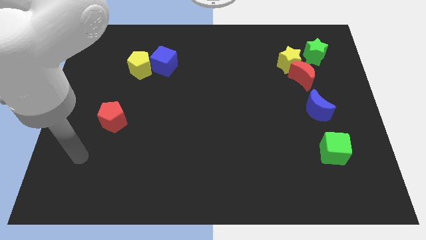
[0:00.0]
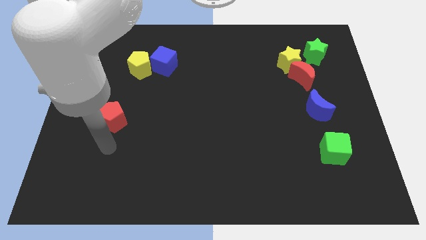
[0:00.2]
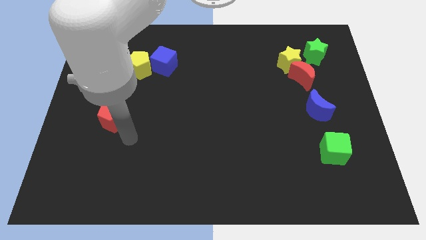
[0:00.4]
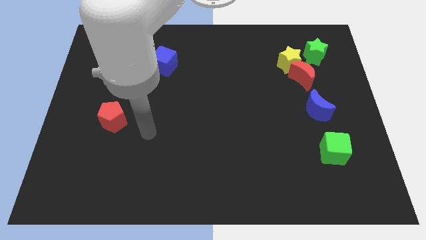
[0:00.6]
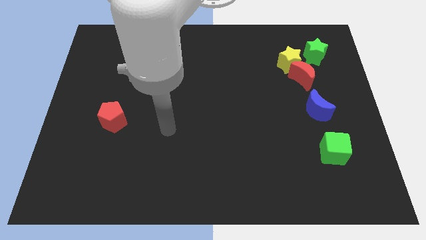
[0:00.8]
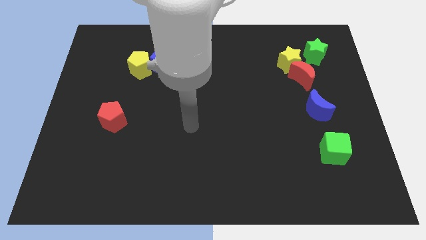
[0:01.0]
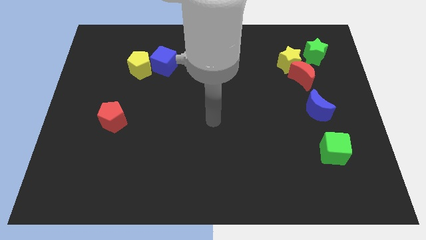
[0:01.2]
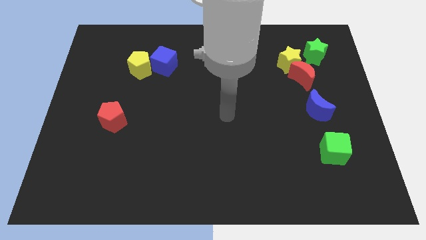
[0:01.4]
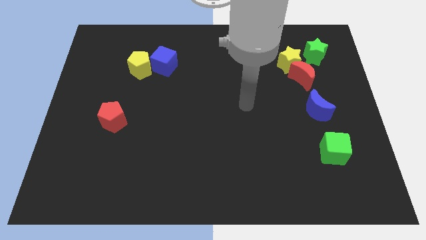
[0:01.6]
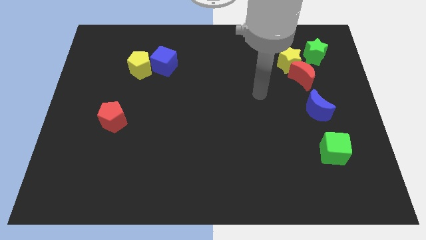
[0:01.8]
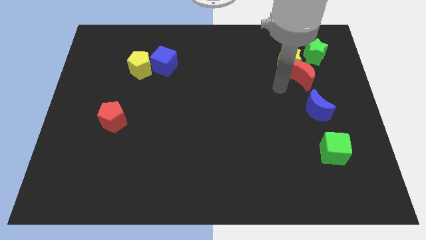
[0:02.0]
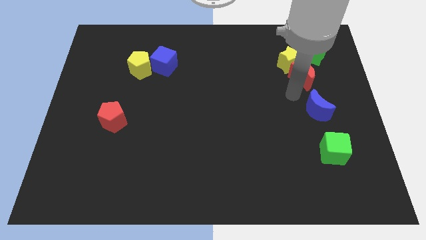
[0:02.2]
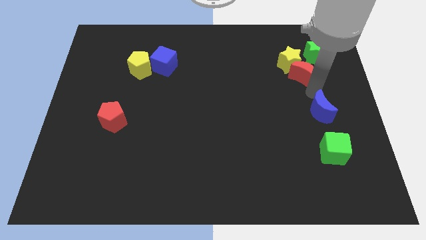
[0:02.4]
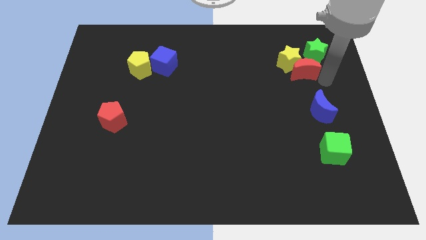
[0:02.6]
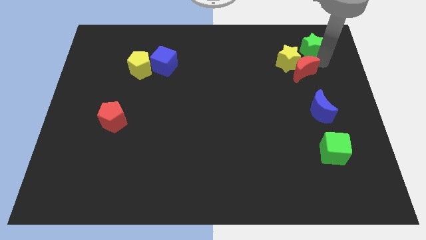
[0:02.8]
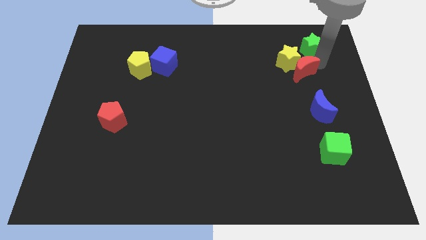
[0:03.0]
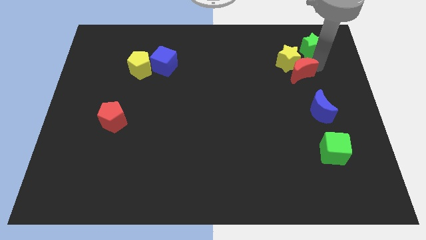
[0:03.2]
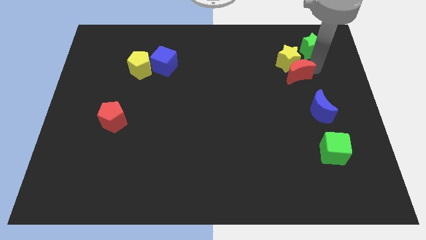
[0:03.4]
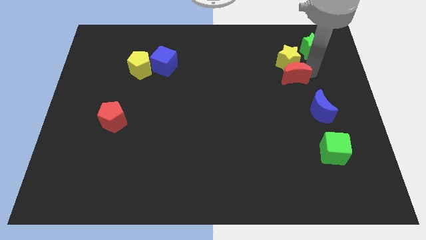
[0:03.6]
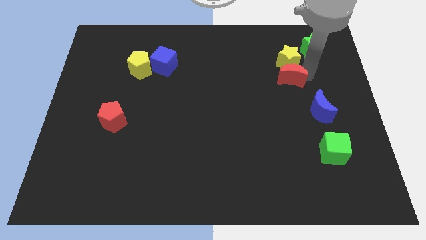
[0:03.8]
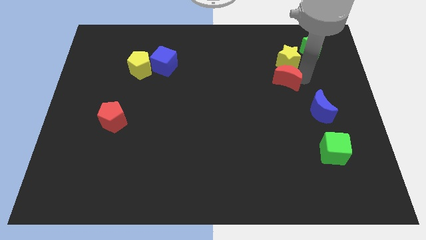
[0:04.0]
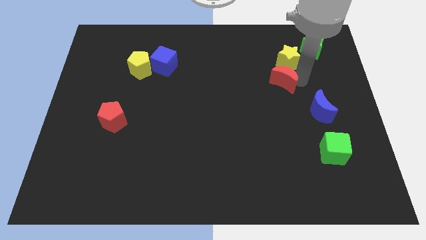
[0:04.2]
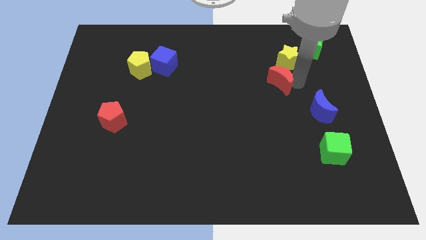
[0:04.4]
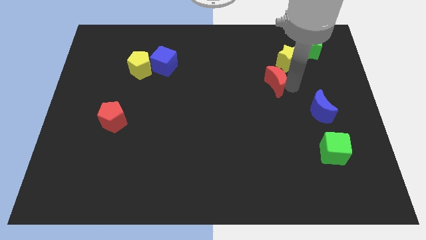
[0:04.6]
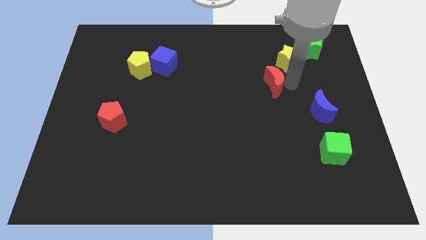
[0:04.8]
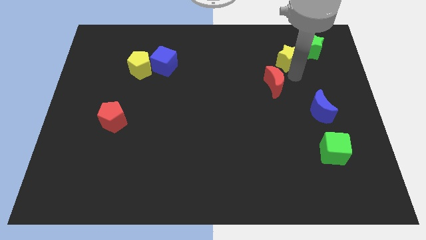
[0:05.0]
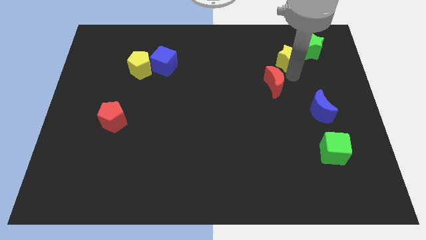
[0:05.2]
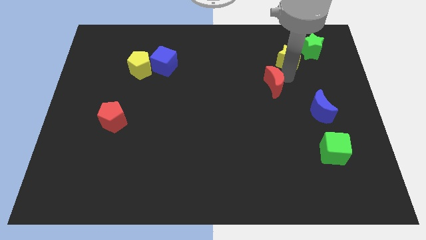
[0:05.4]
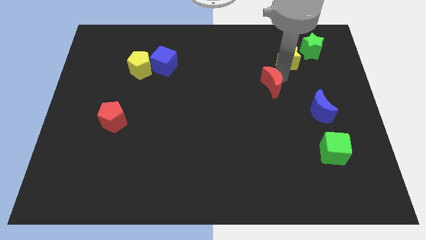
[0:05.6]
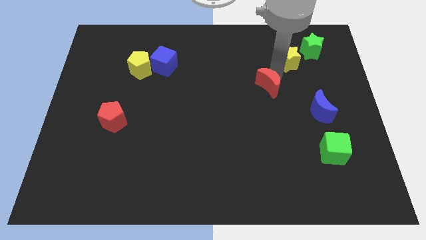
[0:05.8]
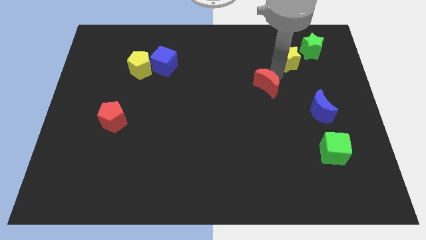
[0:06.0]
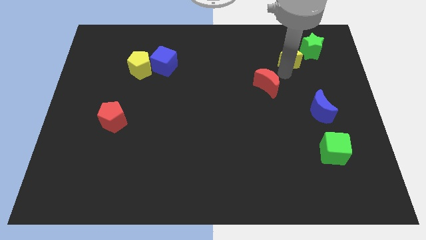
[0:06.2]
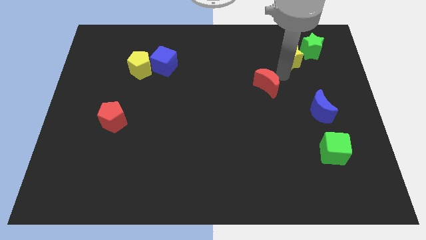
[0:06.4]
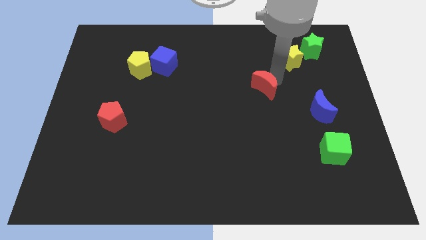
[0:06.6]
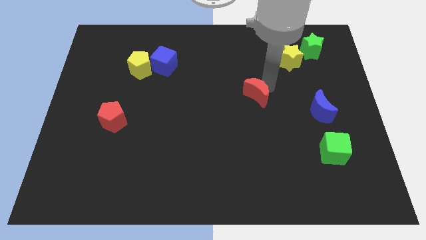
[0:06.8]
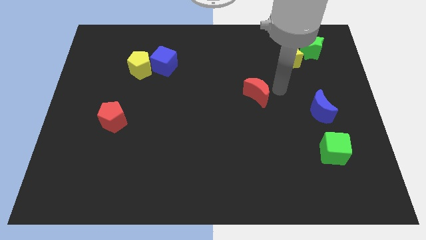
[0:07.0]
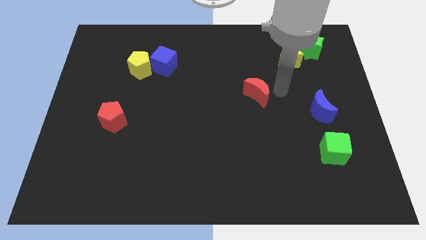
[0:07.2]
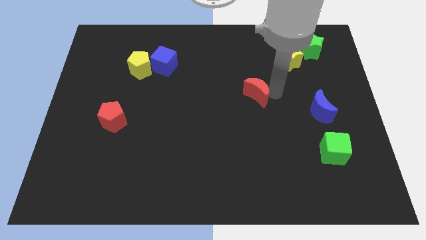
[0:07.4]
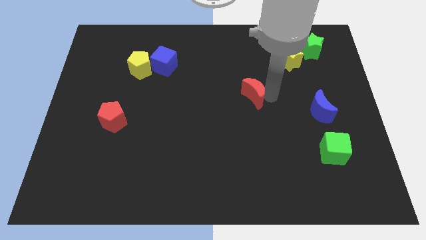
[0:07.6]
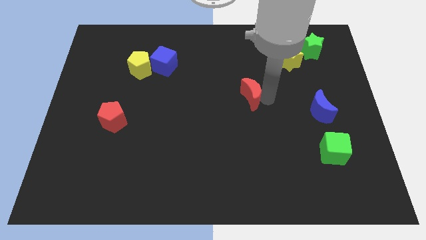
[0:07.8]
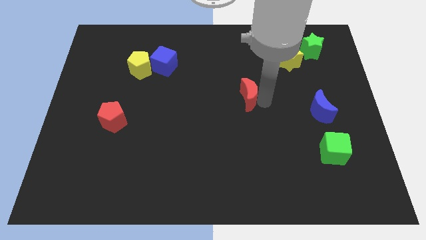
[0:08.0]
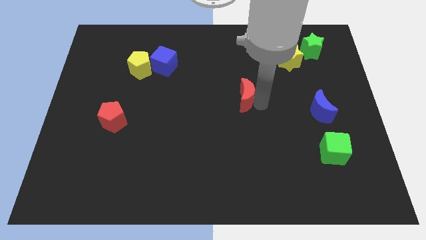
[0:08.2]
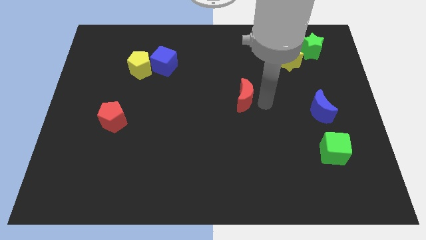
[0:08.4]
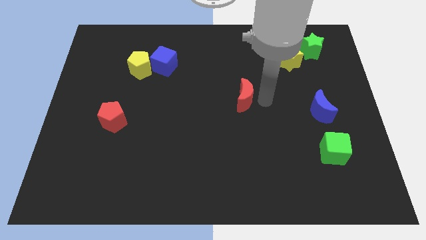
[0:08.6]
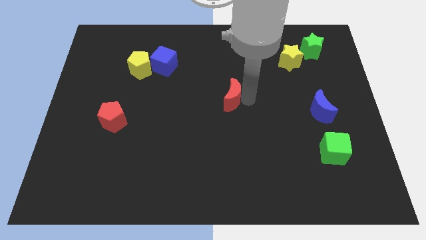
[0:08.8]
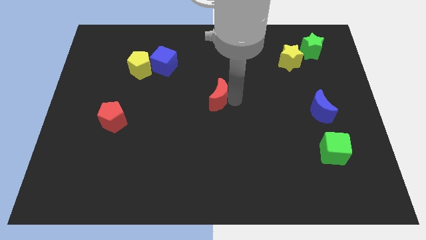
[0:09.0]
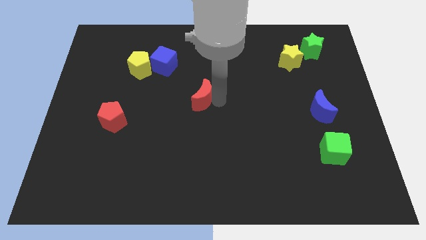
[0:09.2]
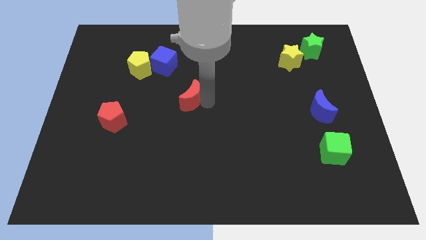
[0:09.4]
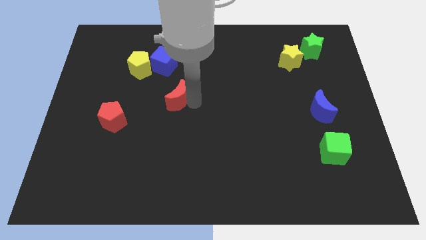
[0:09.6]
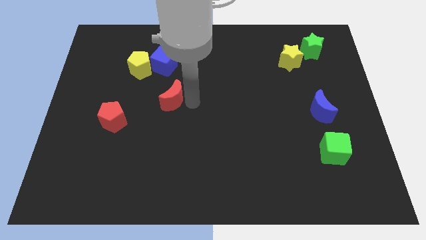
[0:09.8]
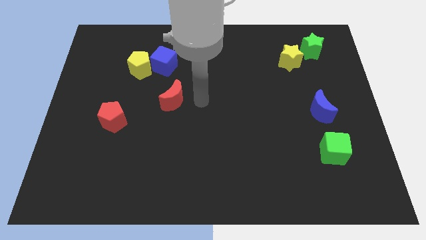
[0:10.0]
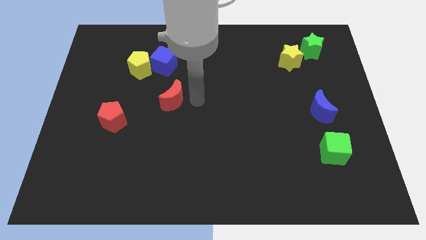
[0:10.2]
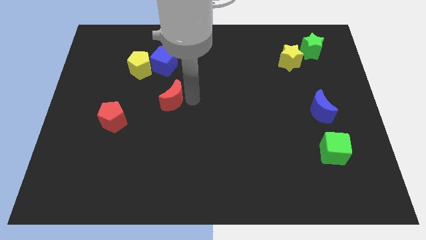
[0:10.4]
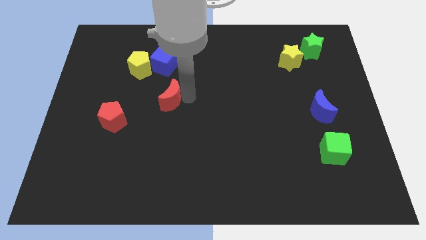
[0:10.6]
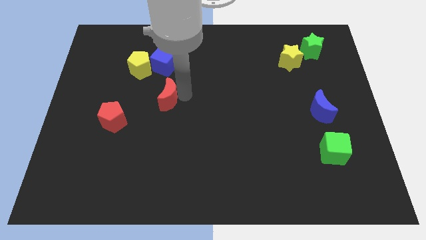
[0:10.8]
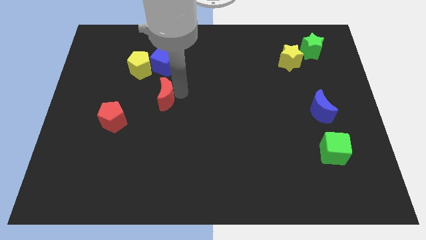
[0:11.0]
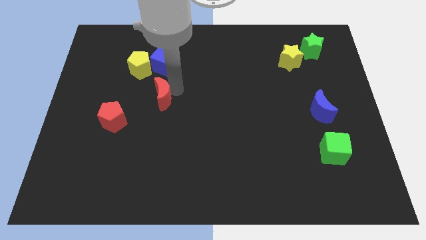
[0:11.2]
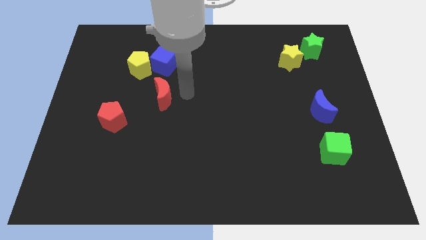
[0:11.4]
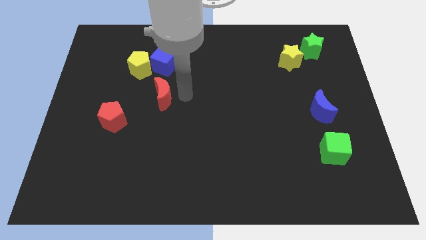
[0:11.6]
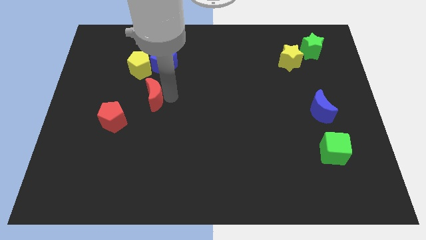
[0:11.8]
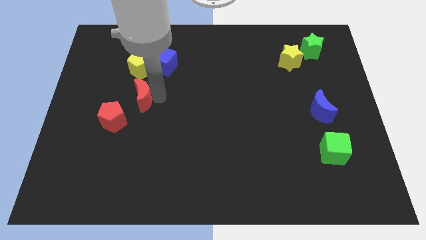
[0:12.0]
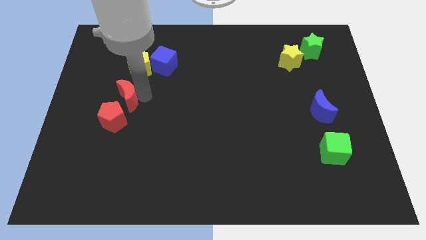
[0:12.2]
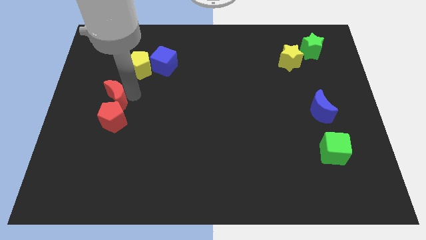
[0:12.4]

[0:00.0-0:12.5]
move the red moon to the top left of the red pentagon
